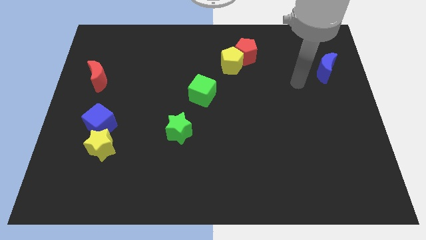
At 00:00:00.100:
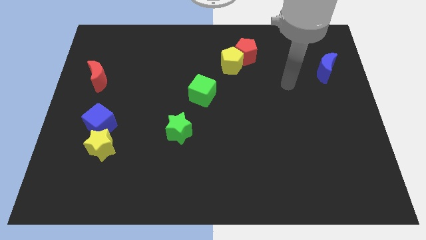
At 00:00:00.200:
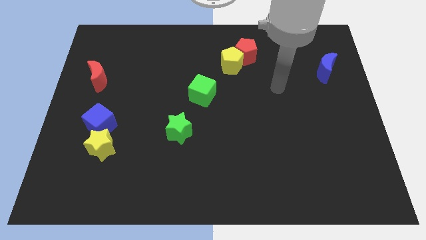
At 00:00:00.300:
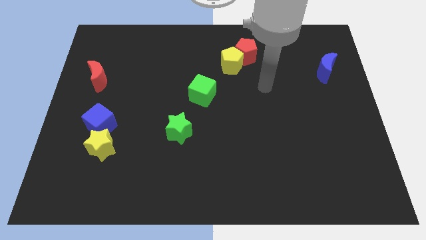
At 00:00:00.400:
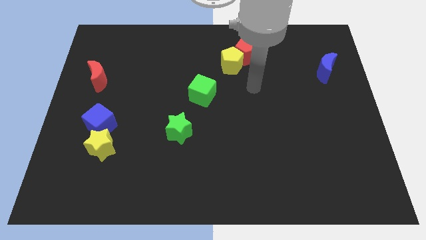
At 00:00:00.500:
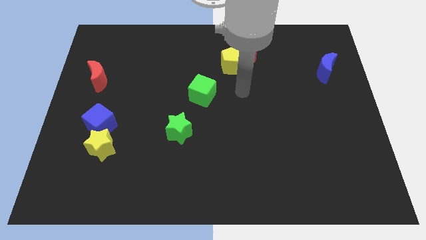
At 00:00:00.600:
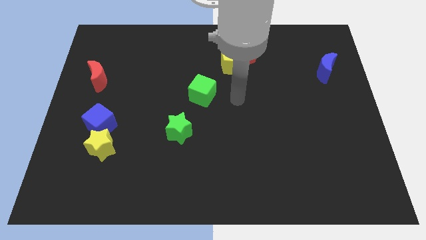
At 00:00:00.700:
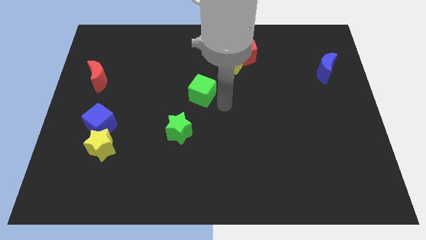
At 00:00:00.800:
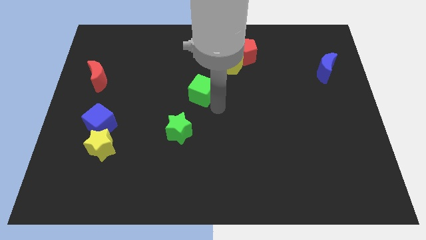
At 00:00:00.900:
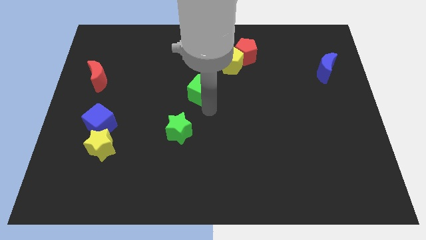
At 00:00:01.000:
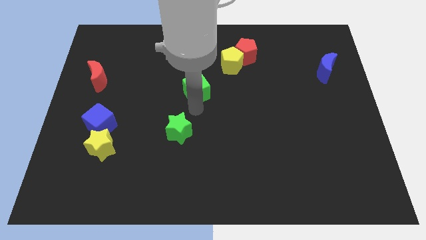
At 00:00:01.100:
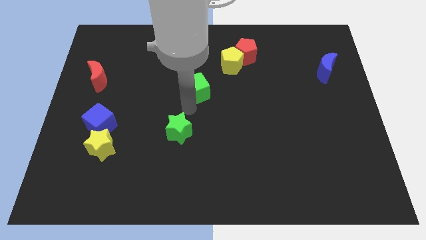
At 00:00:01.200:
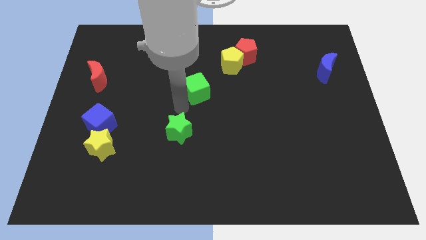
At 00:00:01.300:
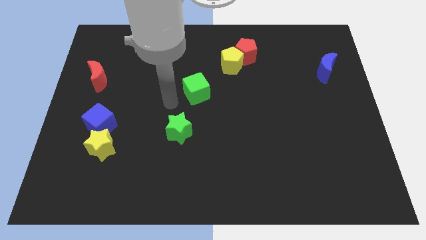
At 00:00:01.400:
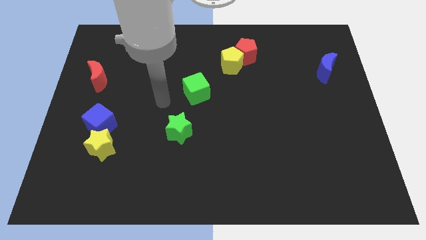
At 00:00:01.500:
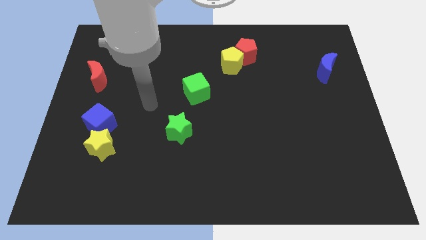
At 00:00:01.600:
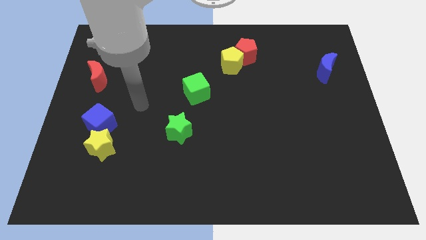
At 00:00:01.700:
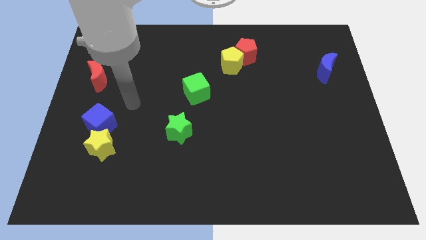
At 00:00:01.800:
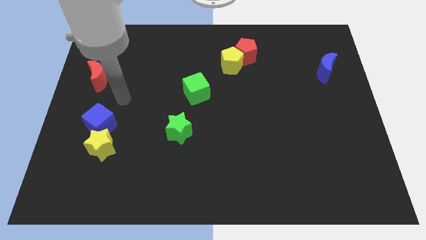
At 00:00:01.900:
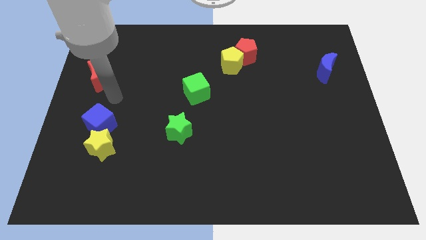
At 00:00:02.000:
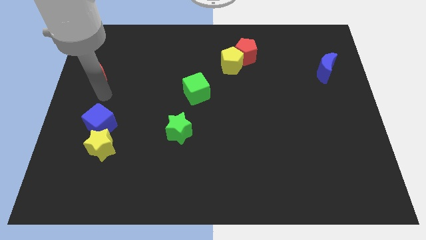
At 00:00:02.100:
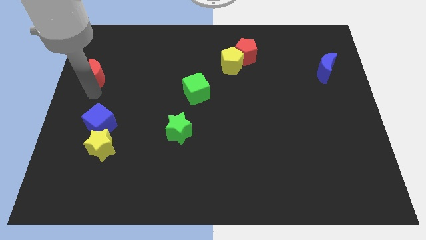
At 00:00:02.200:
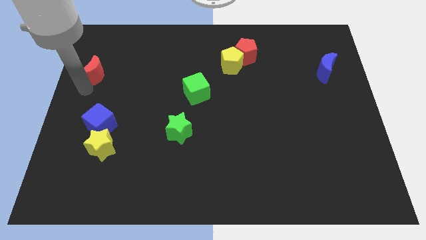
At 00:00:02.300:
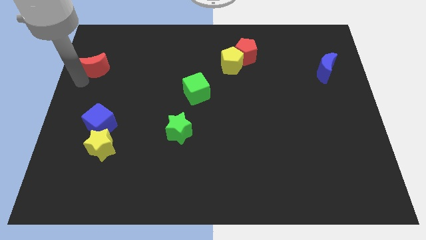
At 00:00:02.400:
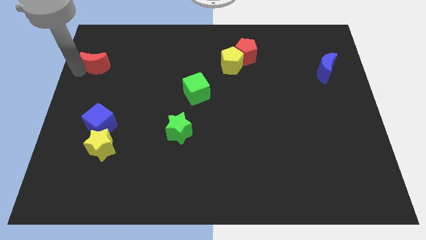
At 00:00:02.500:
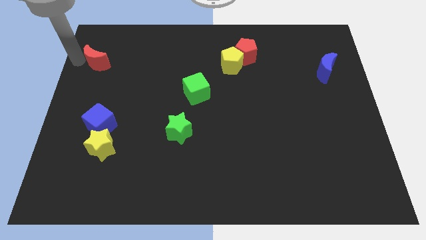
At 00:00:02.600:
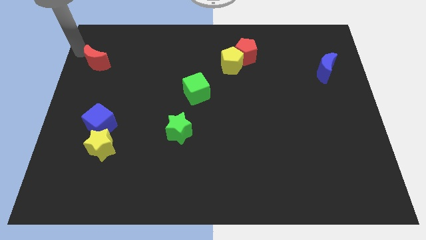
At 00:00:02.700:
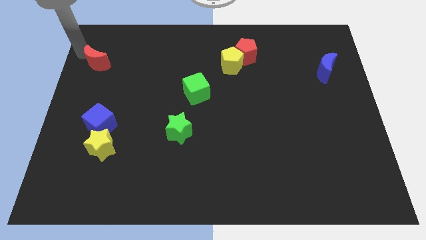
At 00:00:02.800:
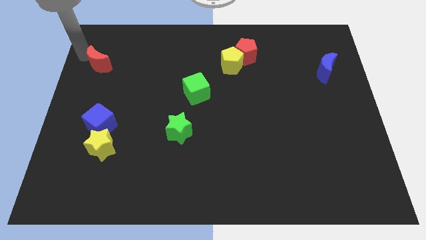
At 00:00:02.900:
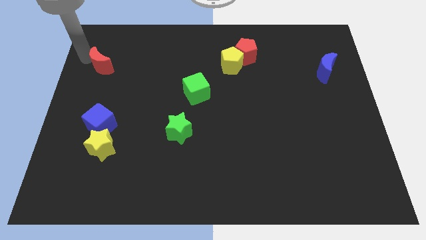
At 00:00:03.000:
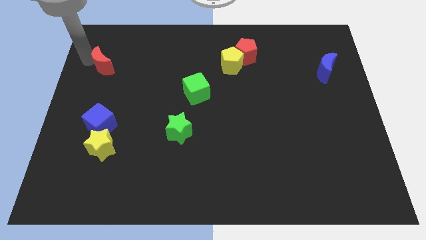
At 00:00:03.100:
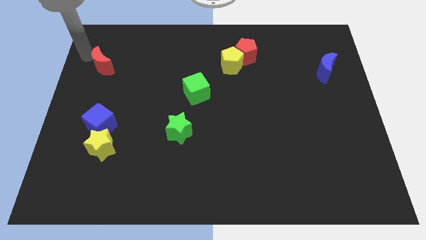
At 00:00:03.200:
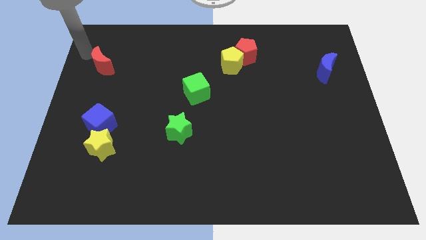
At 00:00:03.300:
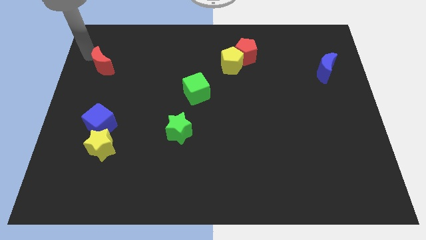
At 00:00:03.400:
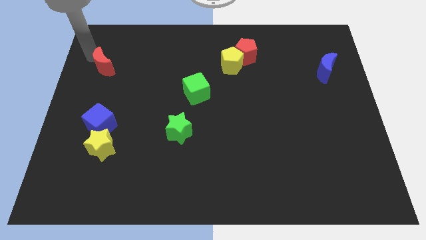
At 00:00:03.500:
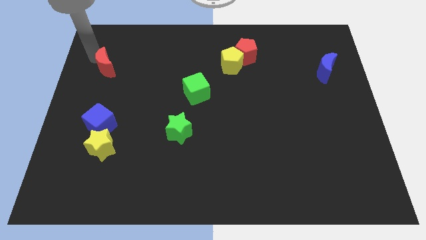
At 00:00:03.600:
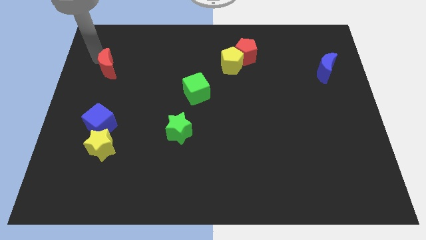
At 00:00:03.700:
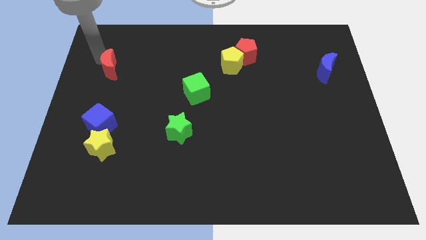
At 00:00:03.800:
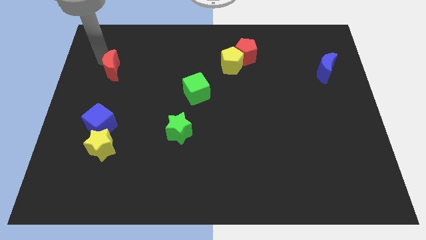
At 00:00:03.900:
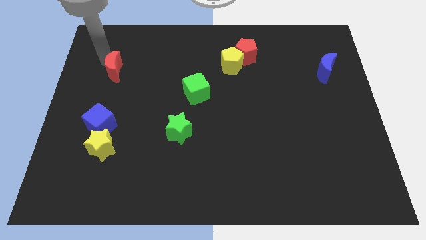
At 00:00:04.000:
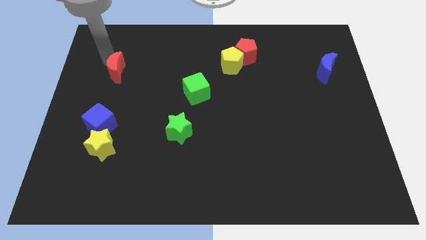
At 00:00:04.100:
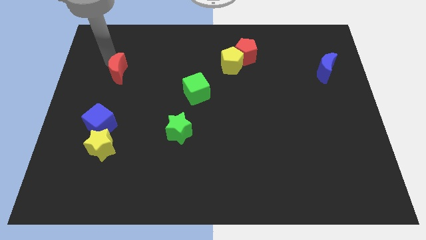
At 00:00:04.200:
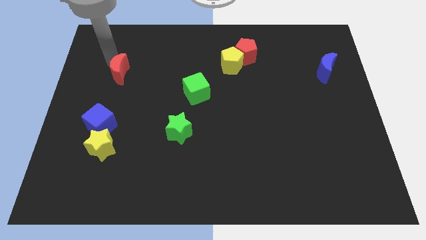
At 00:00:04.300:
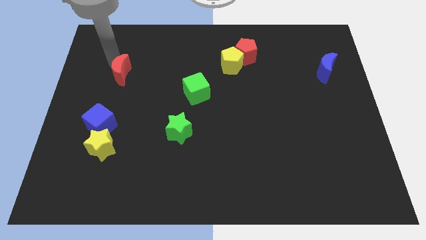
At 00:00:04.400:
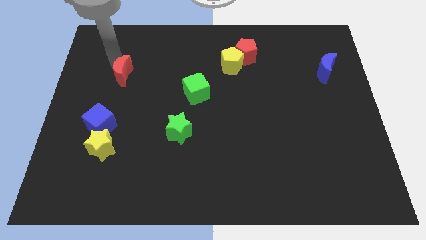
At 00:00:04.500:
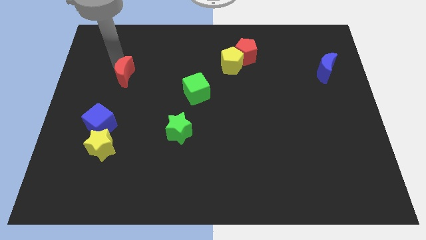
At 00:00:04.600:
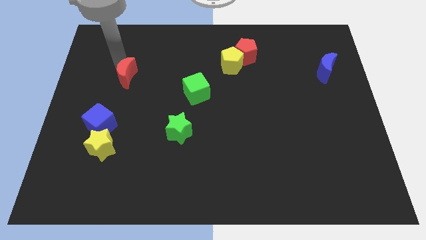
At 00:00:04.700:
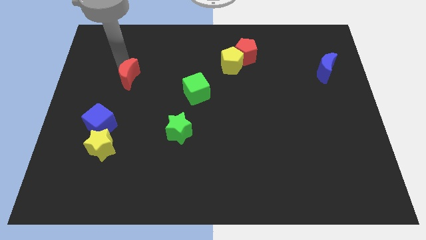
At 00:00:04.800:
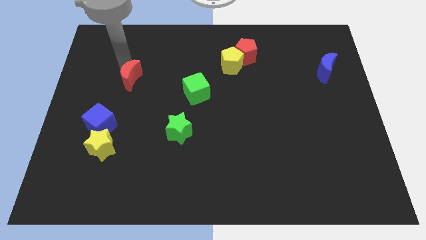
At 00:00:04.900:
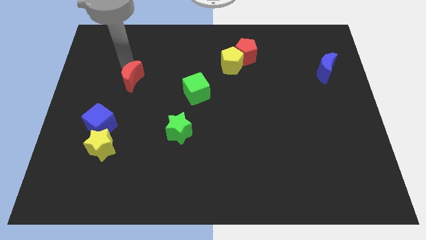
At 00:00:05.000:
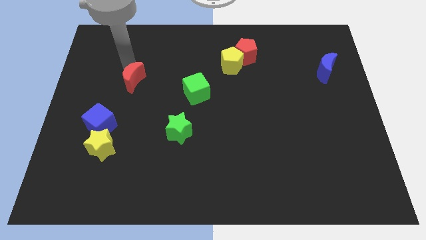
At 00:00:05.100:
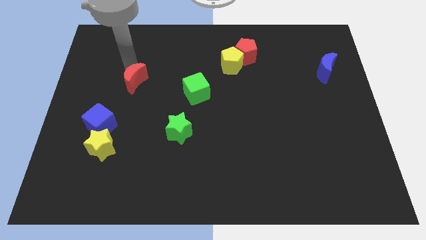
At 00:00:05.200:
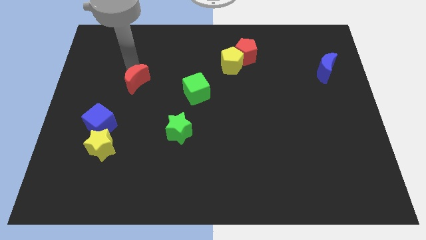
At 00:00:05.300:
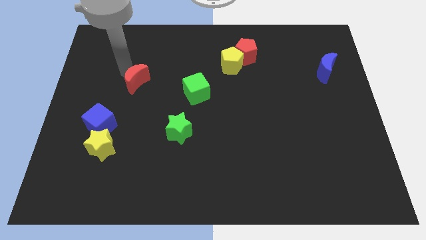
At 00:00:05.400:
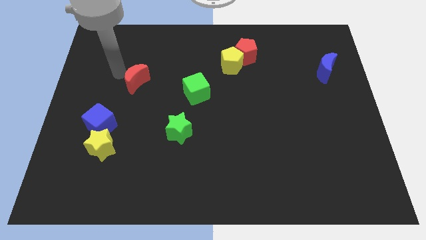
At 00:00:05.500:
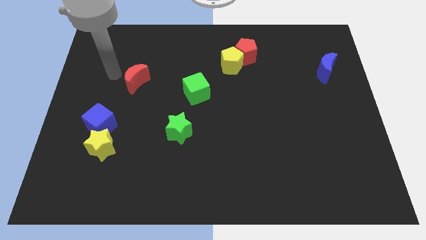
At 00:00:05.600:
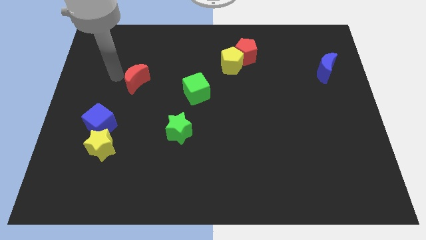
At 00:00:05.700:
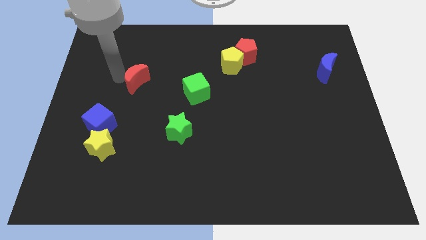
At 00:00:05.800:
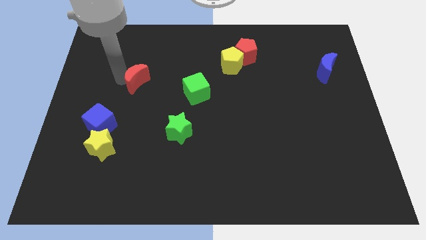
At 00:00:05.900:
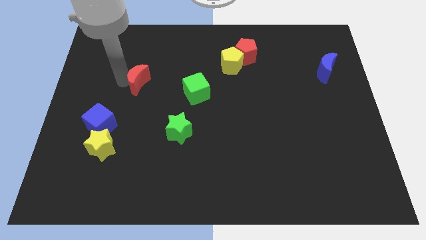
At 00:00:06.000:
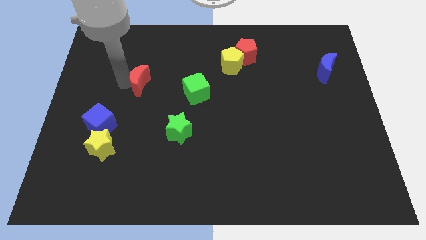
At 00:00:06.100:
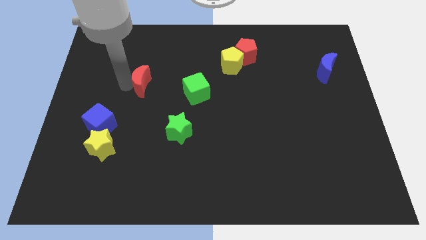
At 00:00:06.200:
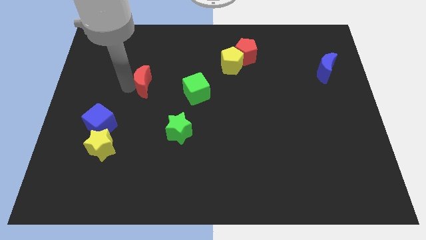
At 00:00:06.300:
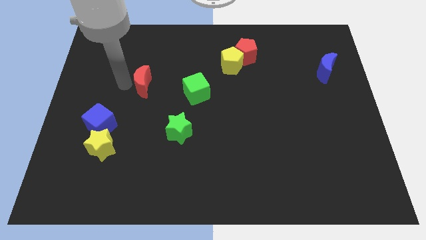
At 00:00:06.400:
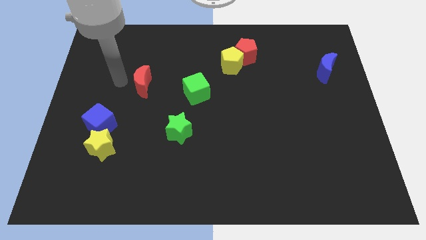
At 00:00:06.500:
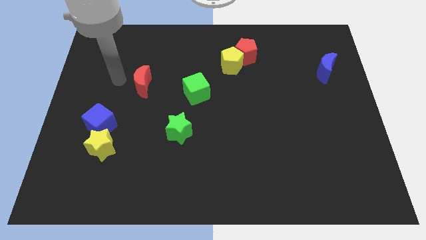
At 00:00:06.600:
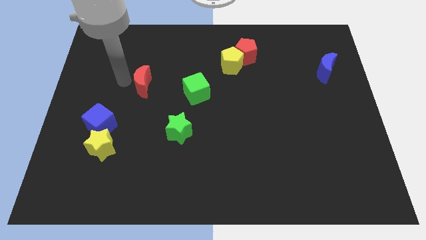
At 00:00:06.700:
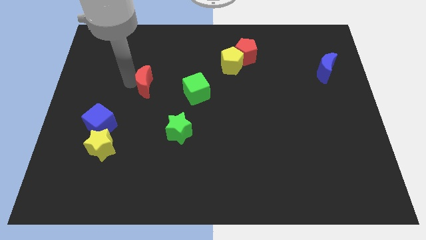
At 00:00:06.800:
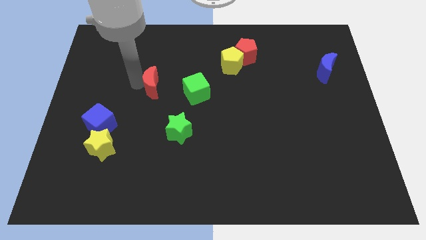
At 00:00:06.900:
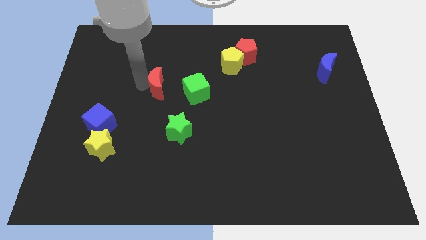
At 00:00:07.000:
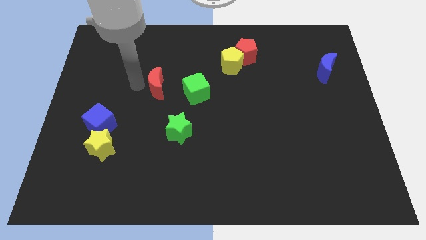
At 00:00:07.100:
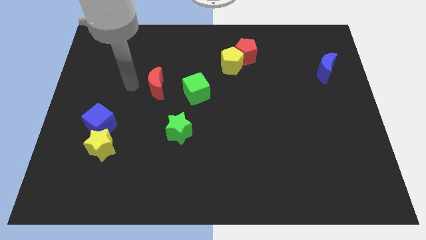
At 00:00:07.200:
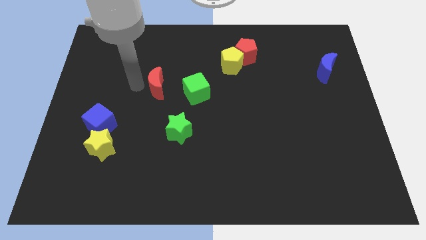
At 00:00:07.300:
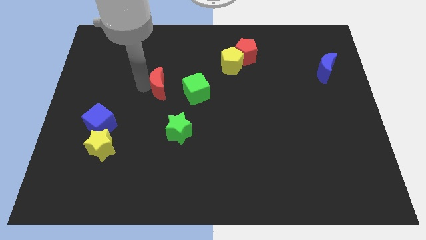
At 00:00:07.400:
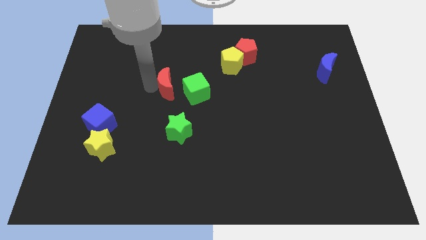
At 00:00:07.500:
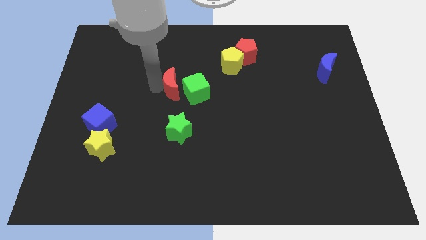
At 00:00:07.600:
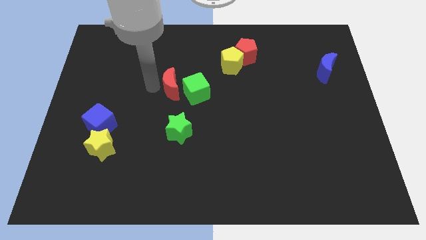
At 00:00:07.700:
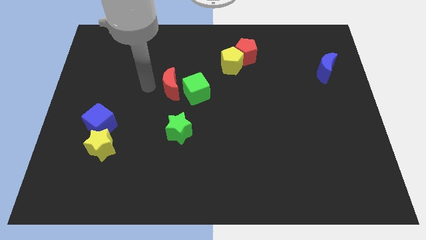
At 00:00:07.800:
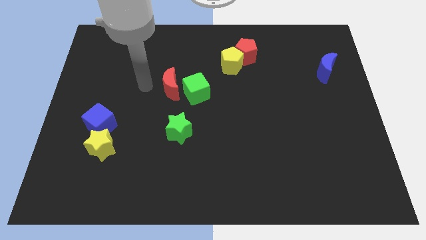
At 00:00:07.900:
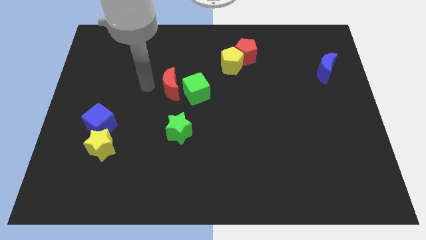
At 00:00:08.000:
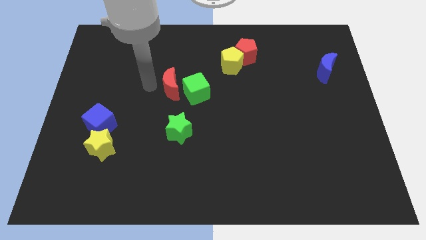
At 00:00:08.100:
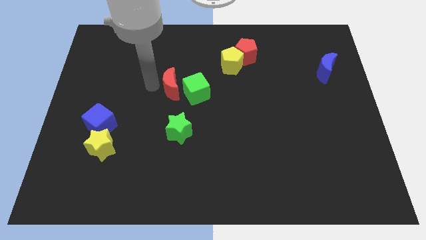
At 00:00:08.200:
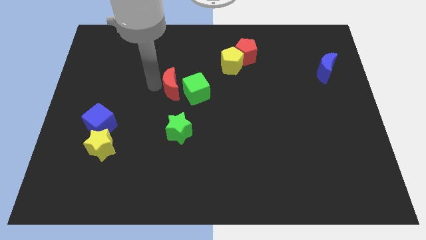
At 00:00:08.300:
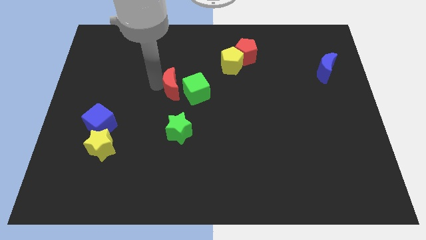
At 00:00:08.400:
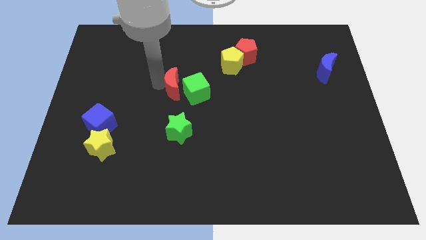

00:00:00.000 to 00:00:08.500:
move the red moon to the green cube
